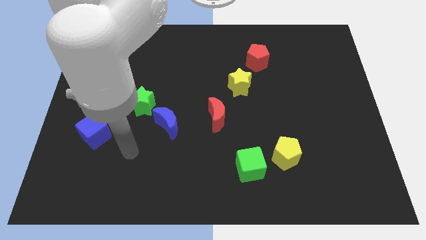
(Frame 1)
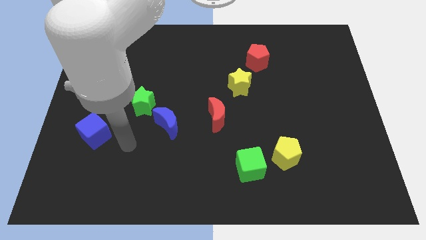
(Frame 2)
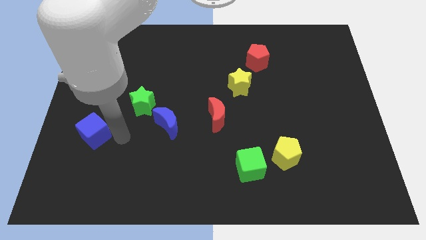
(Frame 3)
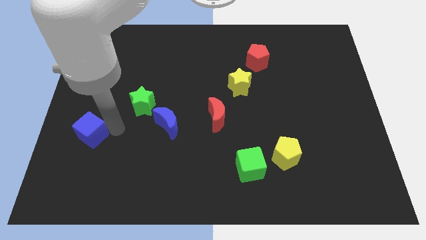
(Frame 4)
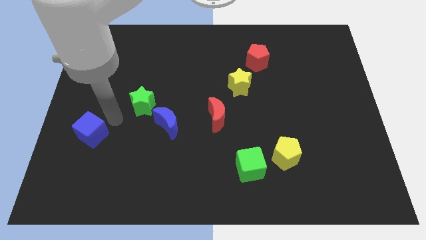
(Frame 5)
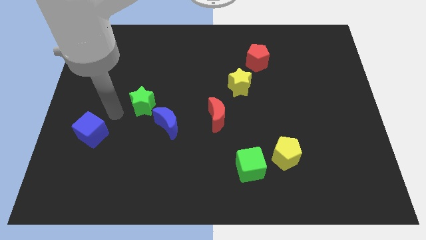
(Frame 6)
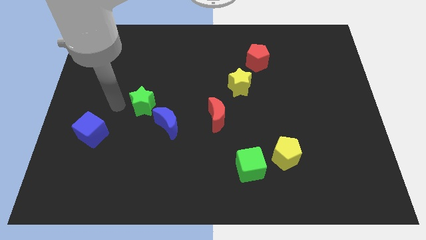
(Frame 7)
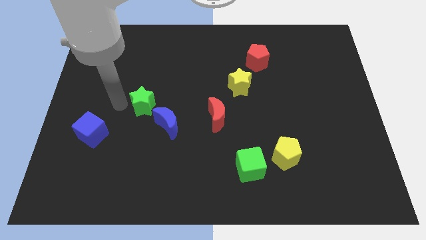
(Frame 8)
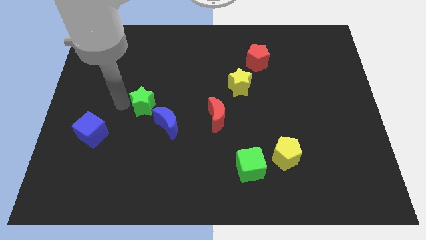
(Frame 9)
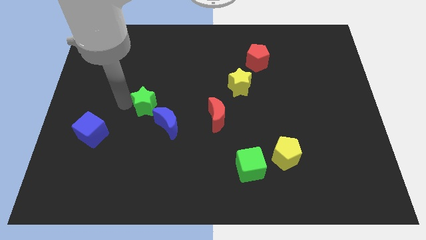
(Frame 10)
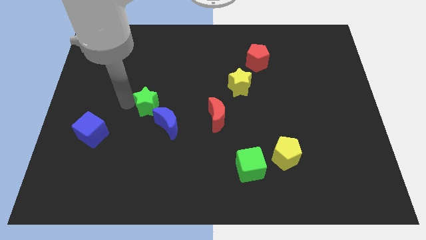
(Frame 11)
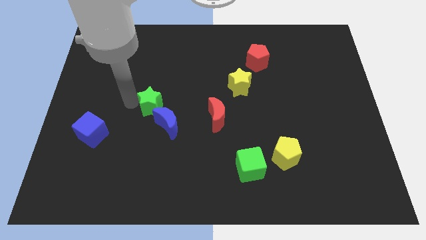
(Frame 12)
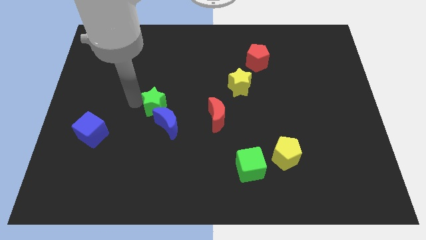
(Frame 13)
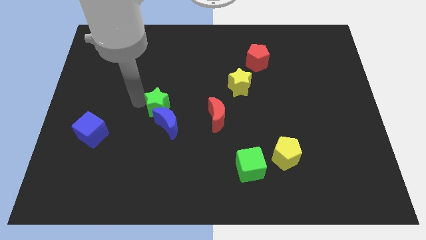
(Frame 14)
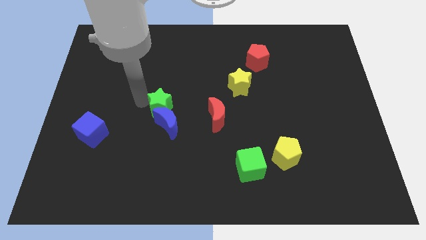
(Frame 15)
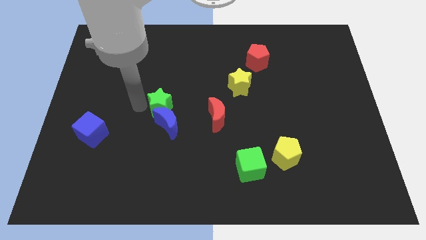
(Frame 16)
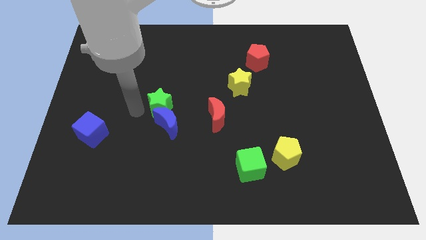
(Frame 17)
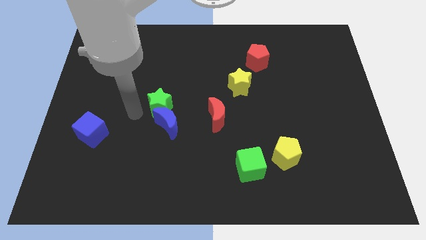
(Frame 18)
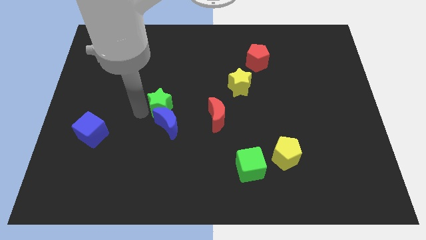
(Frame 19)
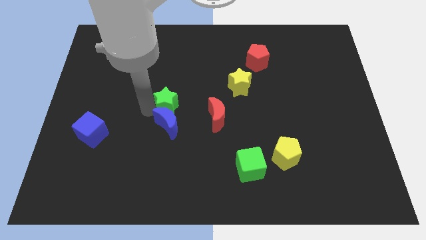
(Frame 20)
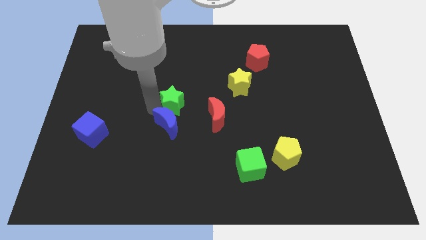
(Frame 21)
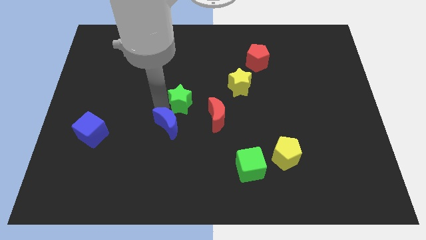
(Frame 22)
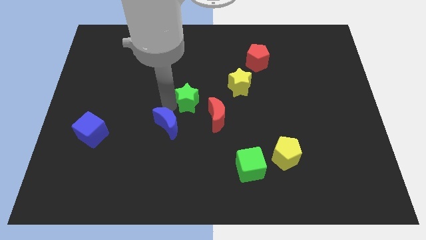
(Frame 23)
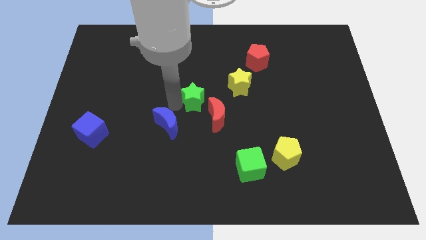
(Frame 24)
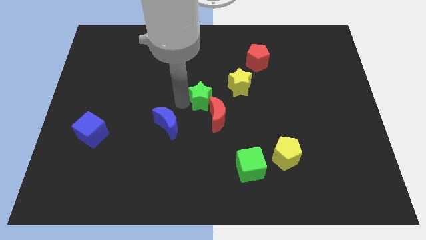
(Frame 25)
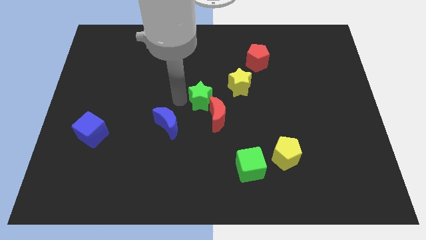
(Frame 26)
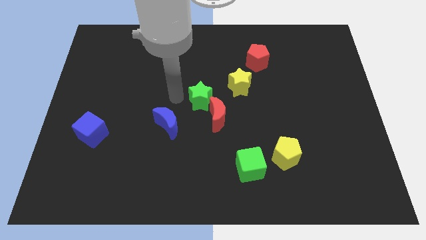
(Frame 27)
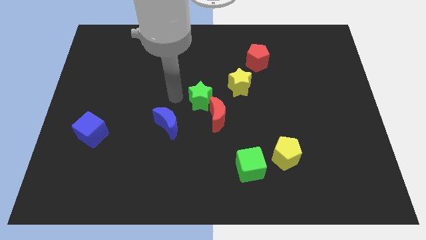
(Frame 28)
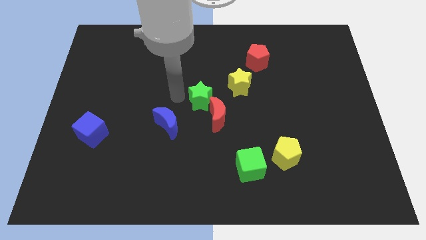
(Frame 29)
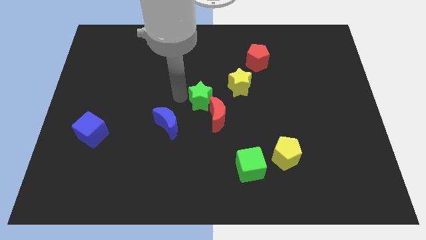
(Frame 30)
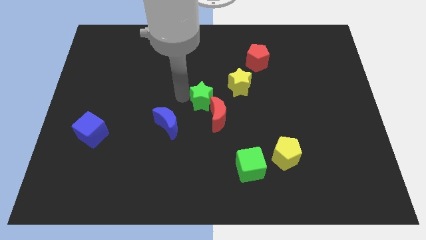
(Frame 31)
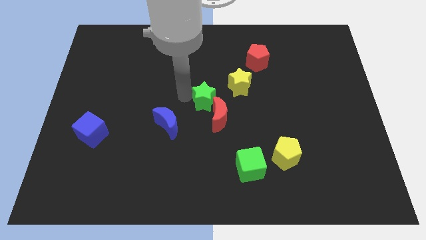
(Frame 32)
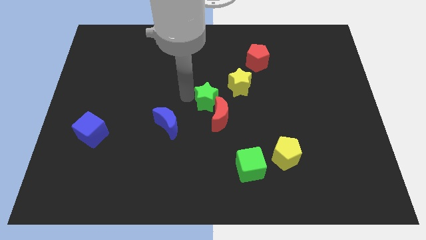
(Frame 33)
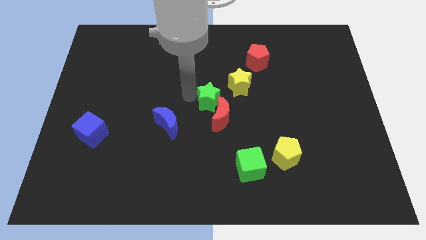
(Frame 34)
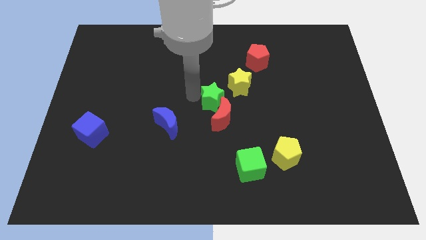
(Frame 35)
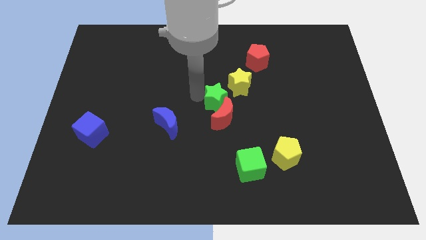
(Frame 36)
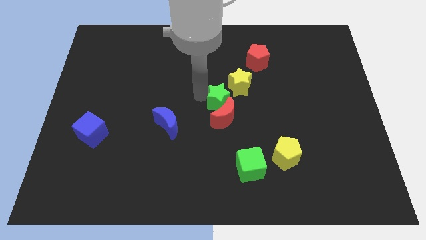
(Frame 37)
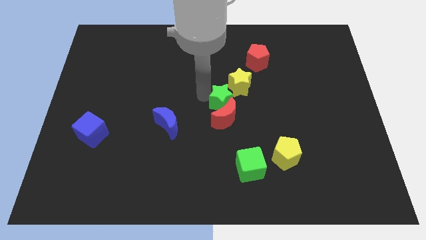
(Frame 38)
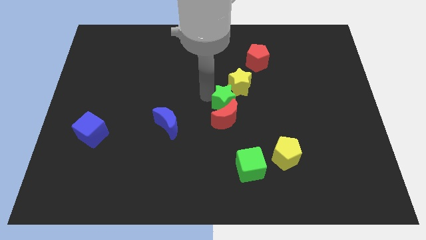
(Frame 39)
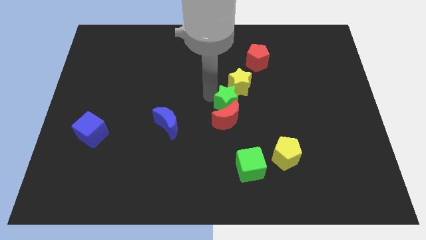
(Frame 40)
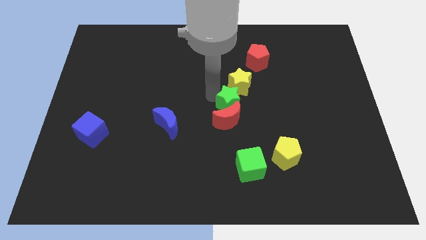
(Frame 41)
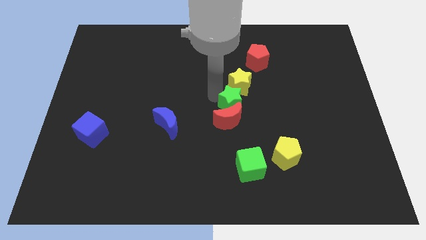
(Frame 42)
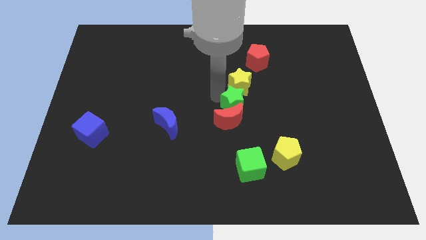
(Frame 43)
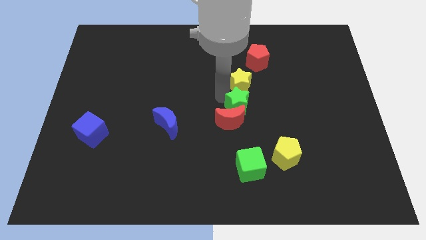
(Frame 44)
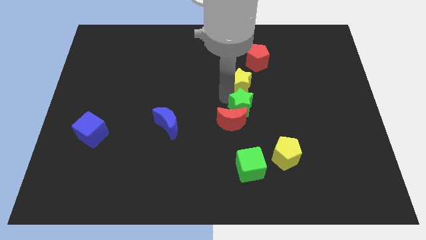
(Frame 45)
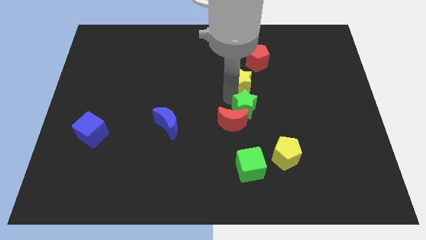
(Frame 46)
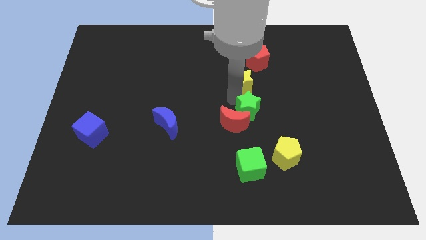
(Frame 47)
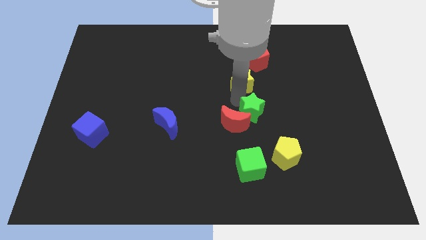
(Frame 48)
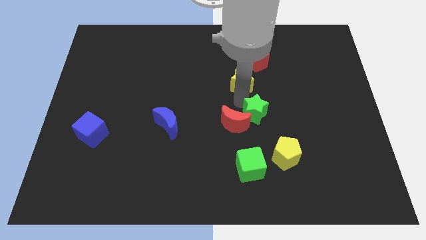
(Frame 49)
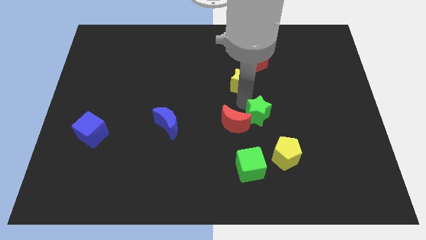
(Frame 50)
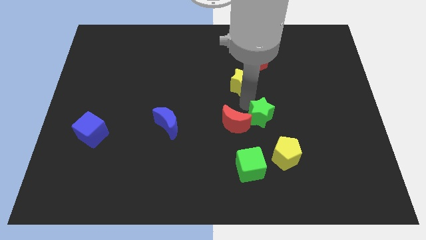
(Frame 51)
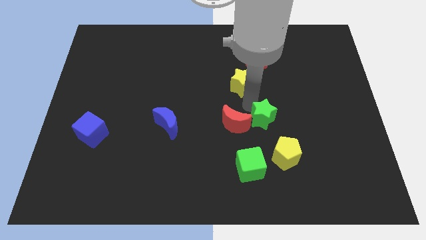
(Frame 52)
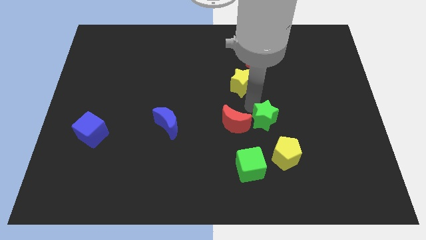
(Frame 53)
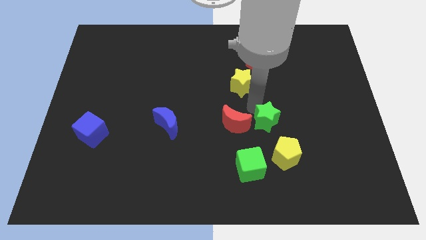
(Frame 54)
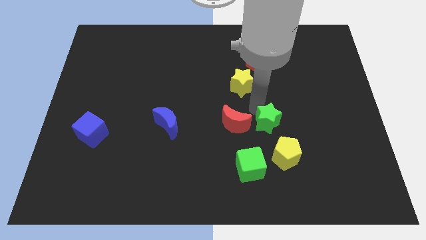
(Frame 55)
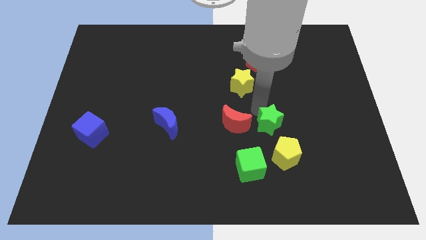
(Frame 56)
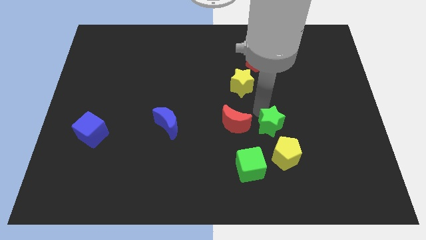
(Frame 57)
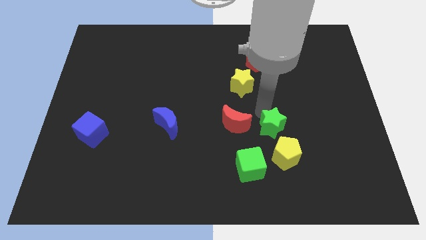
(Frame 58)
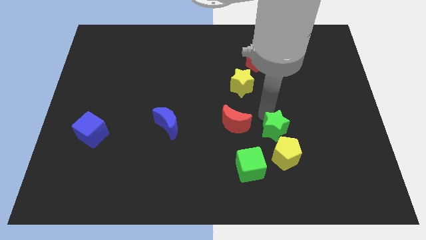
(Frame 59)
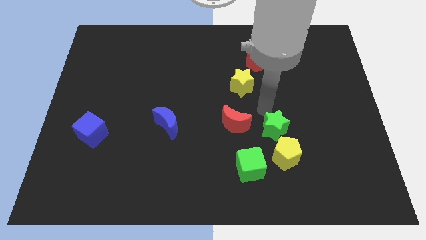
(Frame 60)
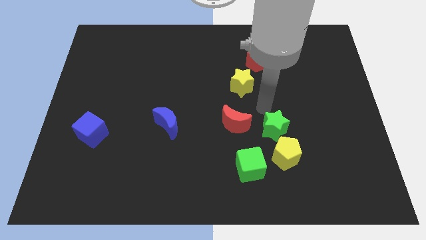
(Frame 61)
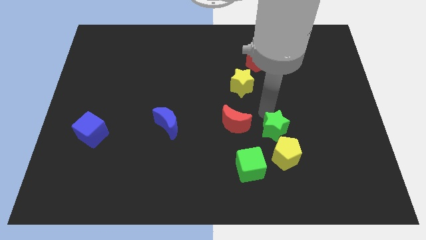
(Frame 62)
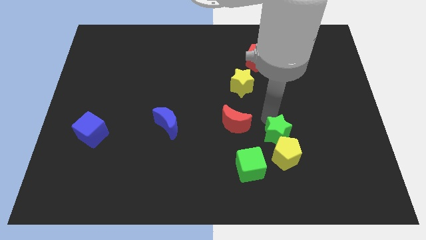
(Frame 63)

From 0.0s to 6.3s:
push the green star to the yellow pentagon
